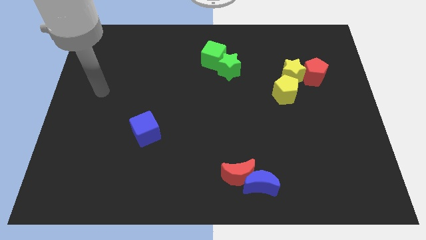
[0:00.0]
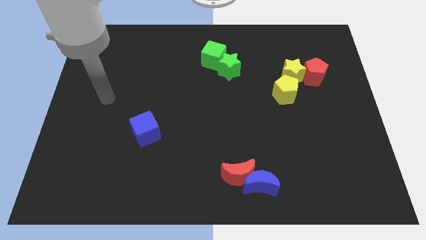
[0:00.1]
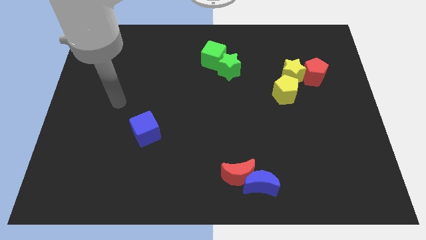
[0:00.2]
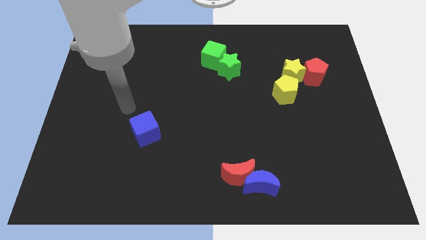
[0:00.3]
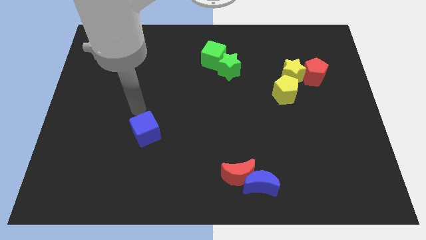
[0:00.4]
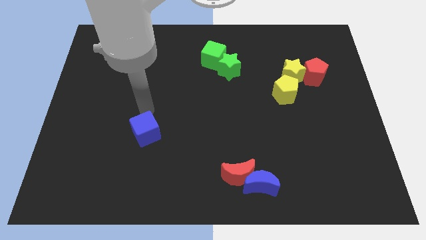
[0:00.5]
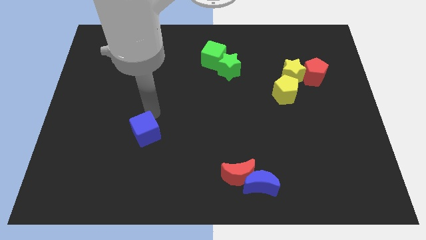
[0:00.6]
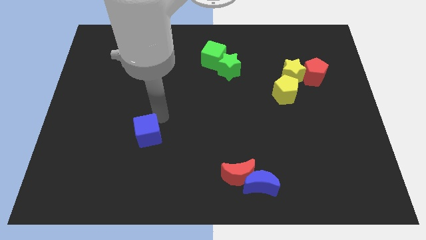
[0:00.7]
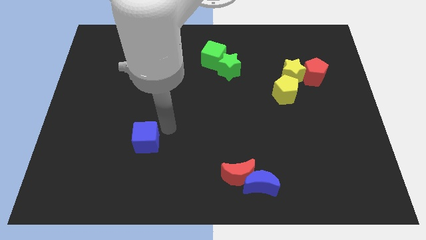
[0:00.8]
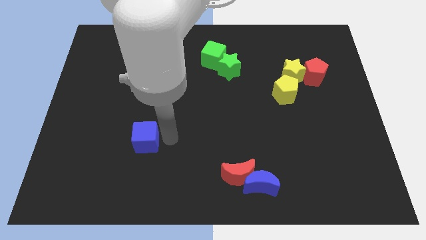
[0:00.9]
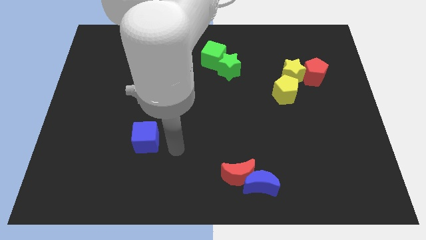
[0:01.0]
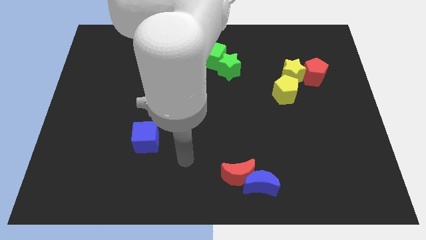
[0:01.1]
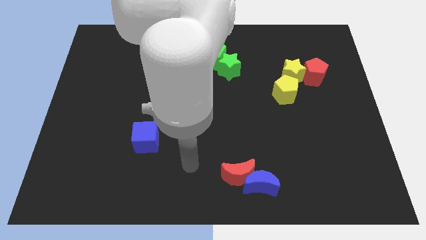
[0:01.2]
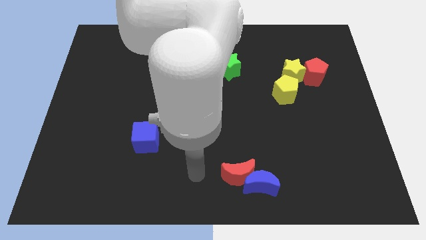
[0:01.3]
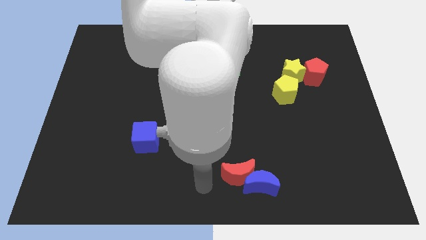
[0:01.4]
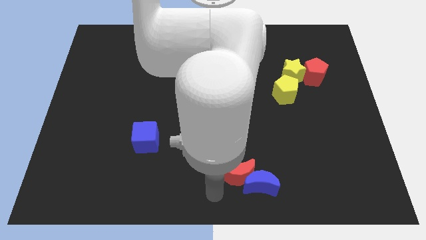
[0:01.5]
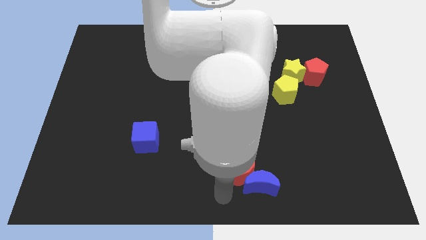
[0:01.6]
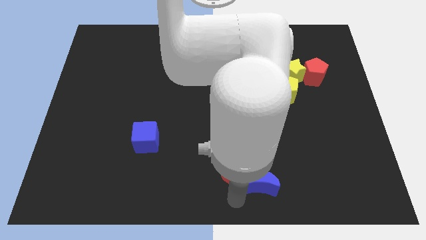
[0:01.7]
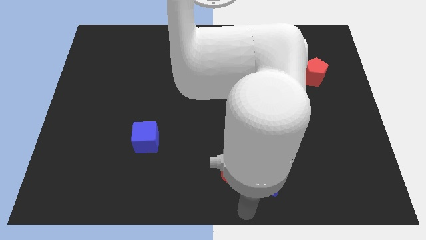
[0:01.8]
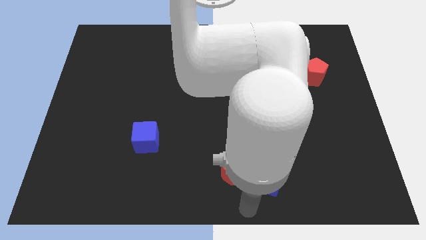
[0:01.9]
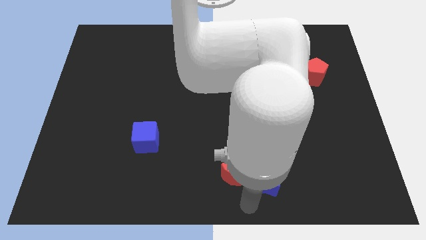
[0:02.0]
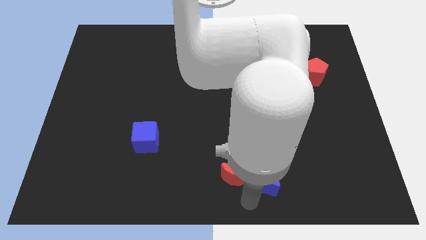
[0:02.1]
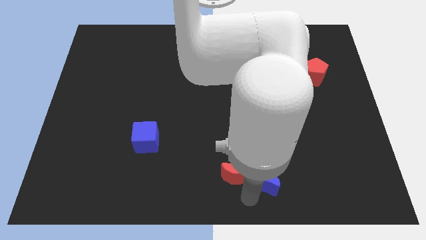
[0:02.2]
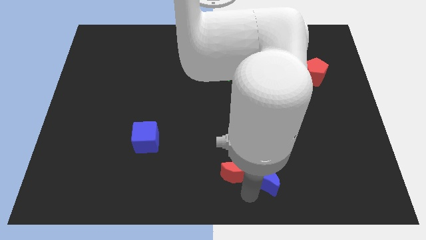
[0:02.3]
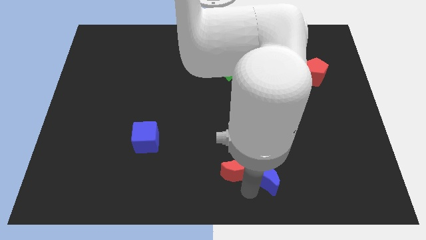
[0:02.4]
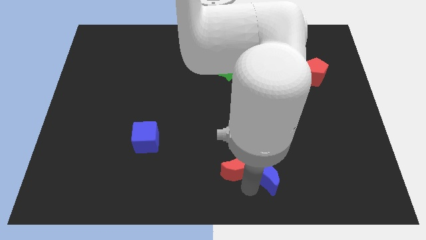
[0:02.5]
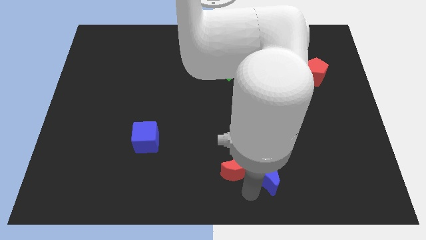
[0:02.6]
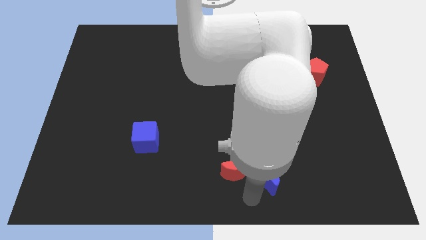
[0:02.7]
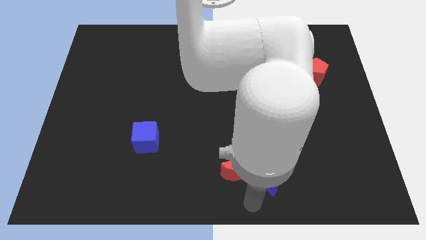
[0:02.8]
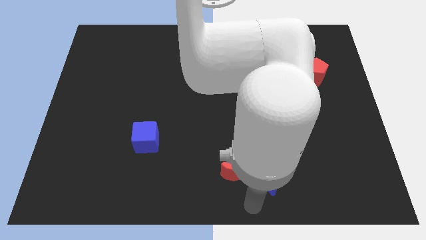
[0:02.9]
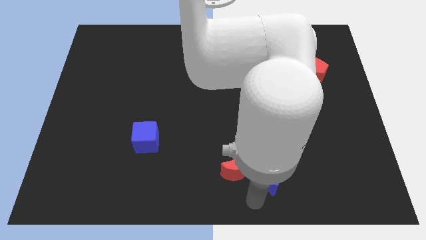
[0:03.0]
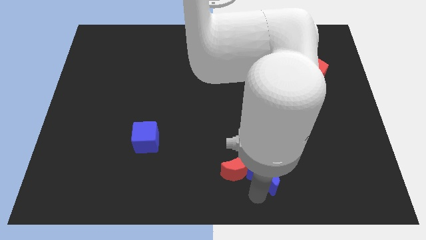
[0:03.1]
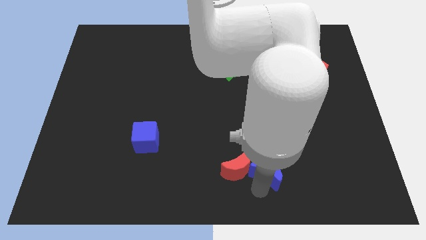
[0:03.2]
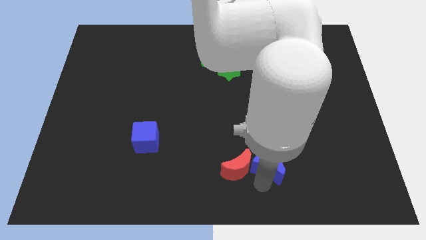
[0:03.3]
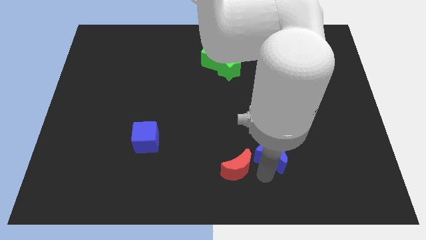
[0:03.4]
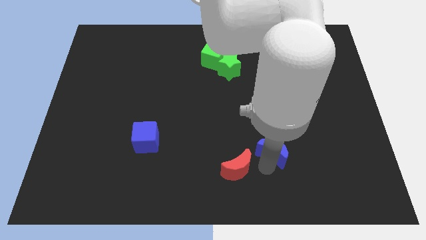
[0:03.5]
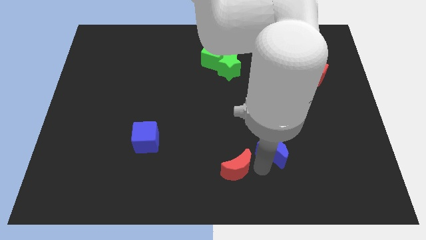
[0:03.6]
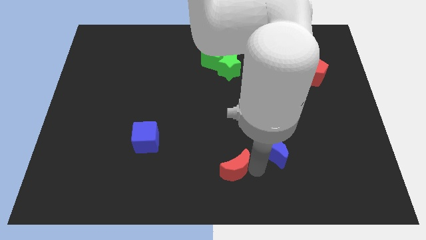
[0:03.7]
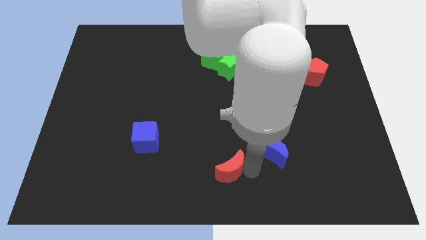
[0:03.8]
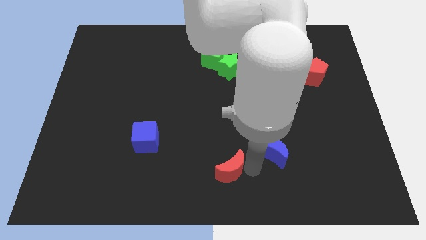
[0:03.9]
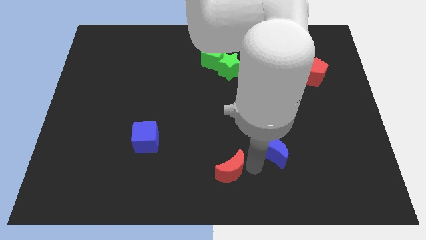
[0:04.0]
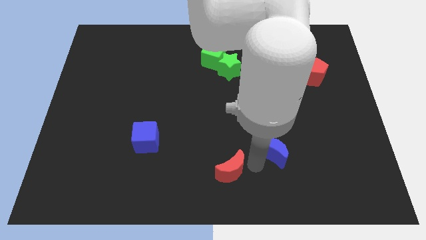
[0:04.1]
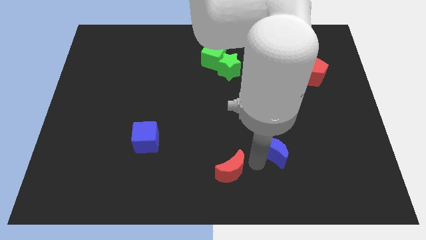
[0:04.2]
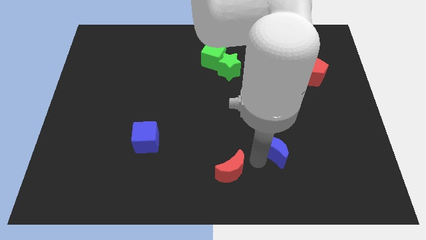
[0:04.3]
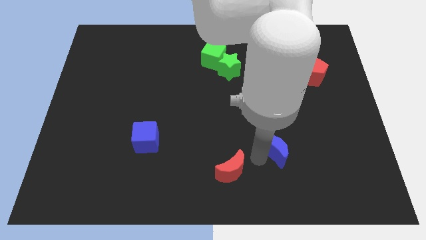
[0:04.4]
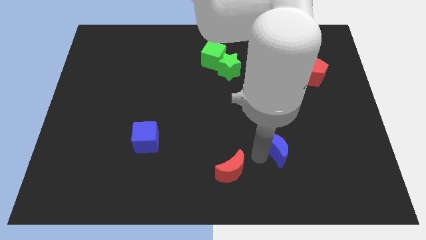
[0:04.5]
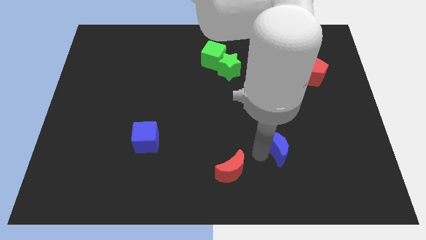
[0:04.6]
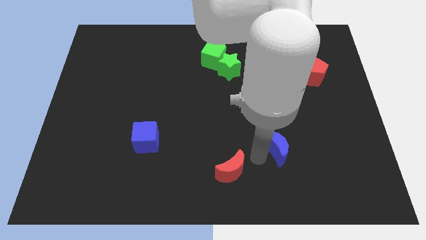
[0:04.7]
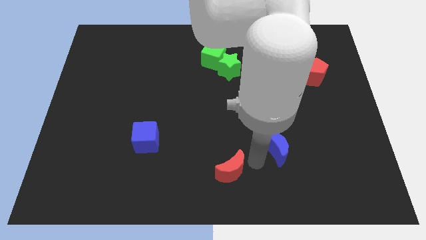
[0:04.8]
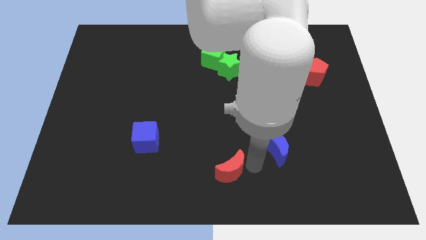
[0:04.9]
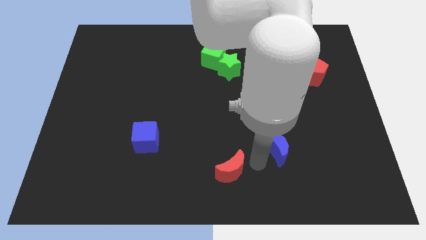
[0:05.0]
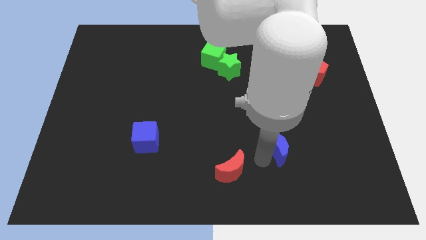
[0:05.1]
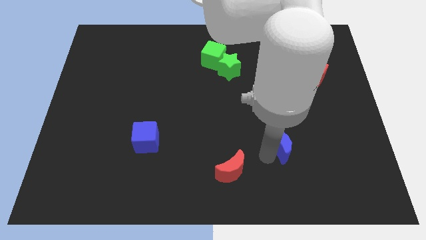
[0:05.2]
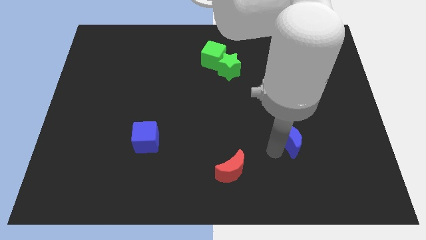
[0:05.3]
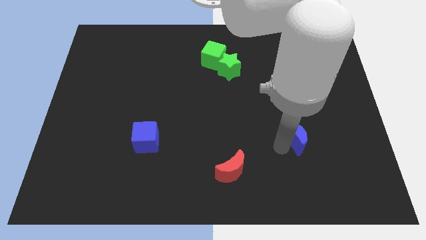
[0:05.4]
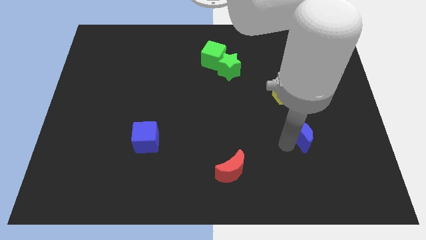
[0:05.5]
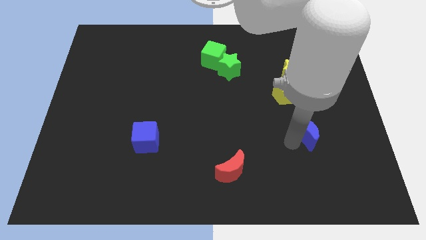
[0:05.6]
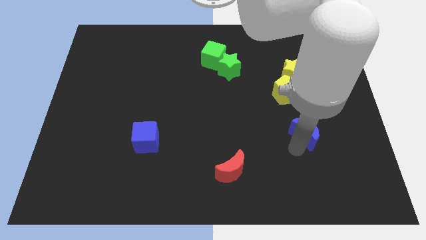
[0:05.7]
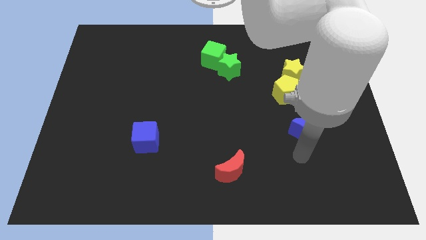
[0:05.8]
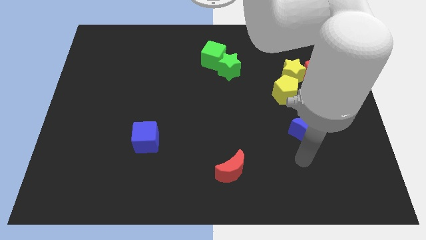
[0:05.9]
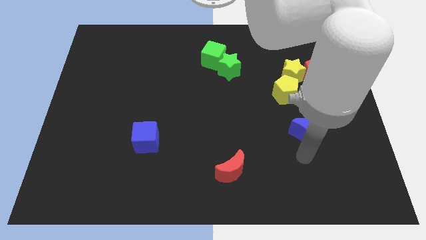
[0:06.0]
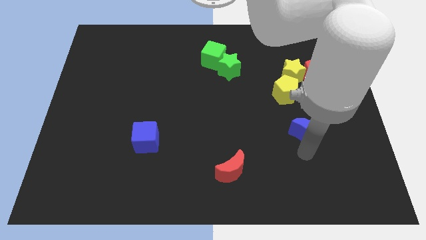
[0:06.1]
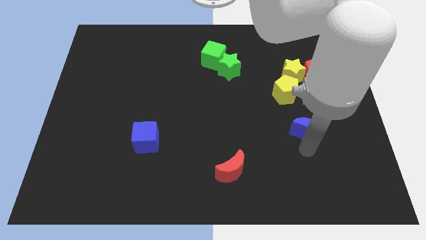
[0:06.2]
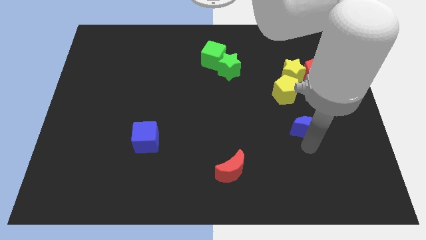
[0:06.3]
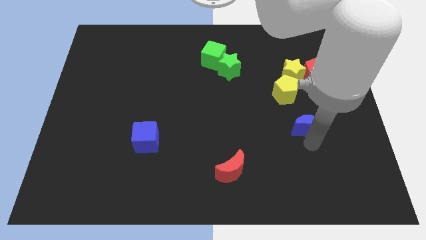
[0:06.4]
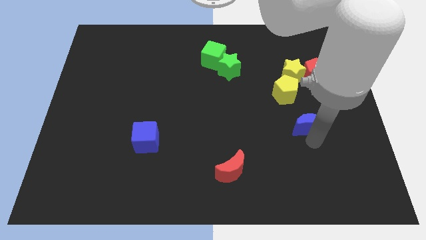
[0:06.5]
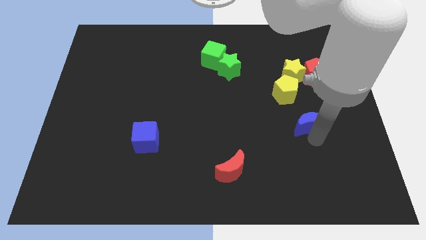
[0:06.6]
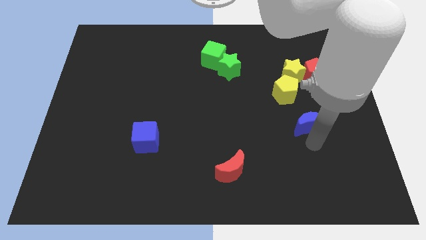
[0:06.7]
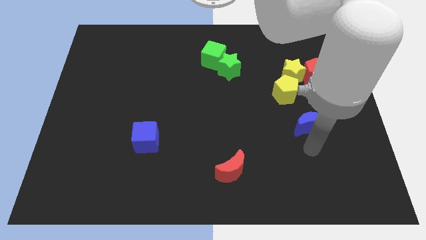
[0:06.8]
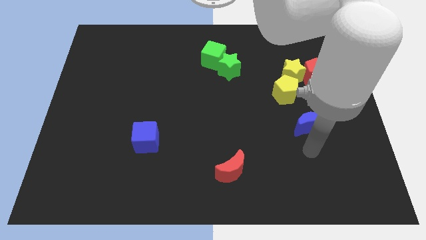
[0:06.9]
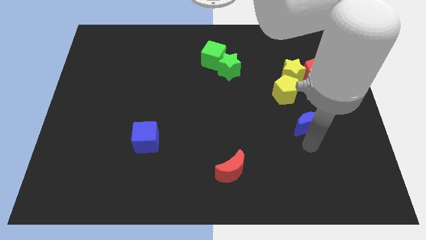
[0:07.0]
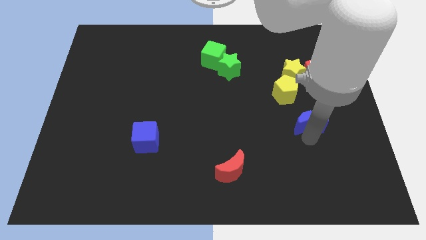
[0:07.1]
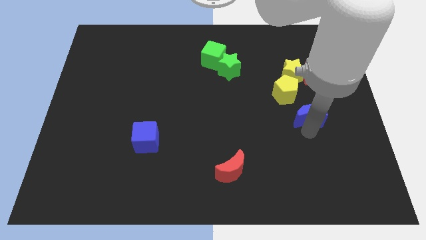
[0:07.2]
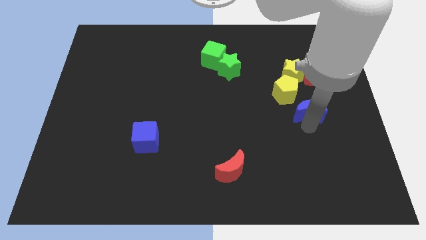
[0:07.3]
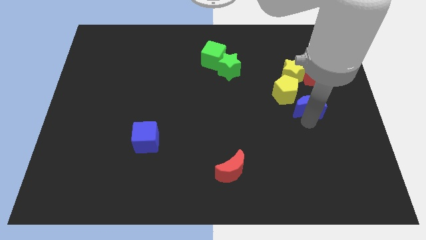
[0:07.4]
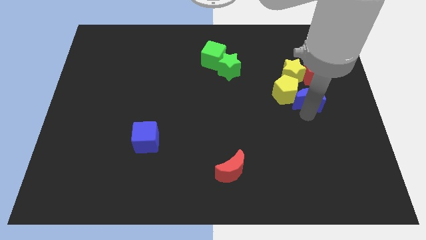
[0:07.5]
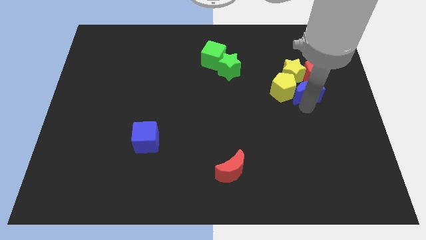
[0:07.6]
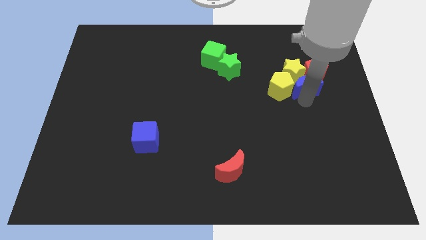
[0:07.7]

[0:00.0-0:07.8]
push the blue moon towards the red pentagon
